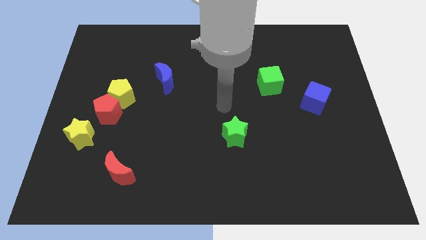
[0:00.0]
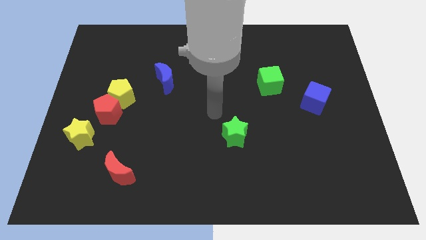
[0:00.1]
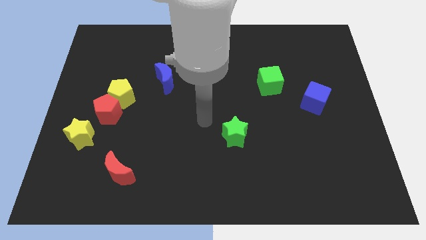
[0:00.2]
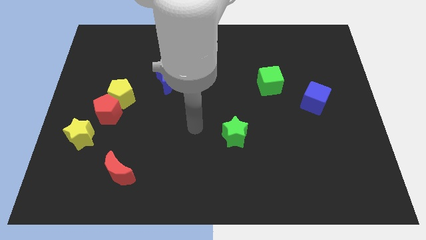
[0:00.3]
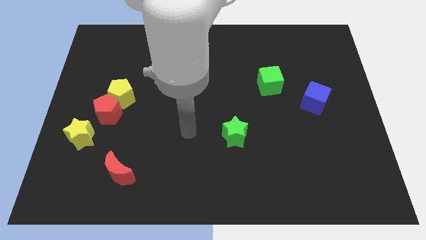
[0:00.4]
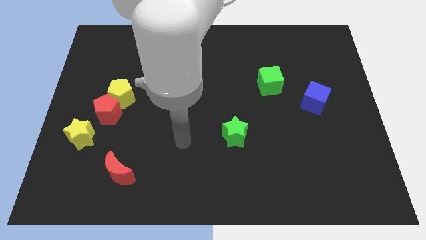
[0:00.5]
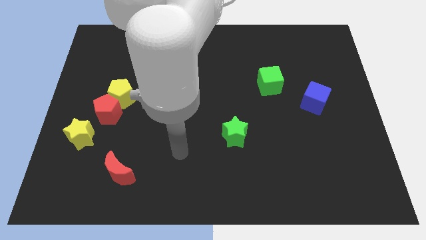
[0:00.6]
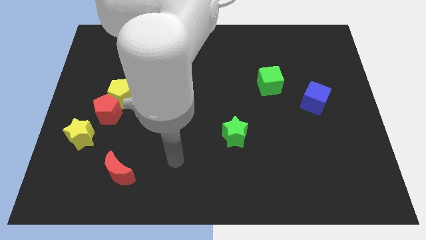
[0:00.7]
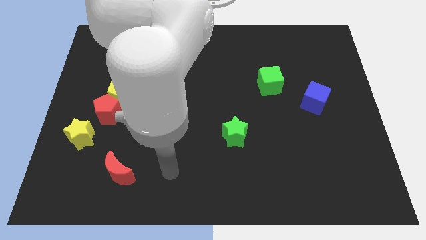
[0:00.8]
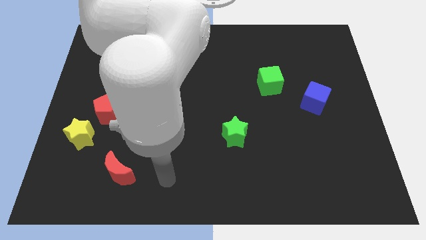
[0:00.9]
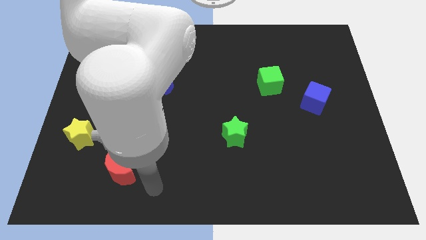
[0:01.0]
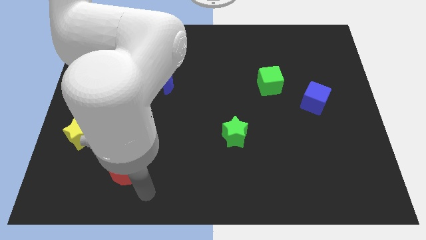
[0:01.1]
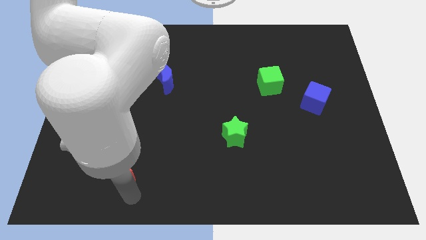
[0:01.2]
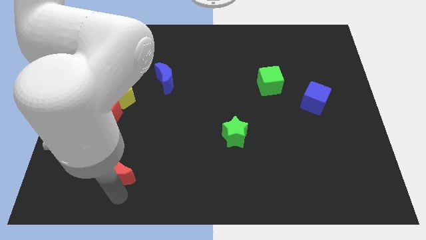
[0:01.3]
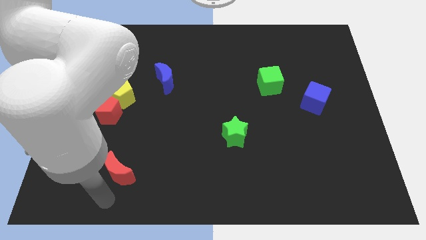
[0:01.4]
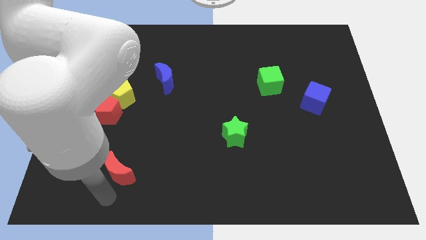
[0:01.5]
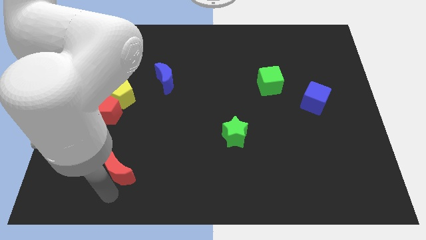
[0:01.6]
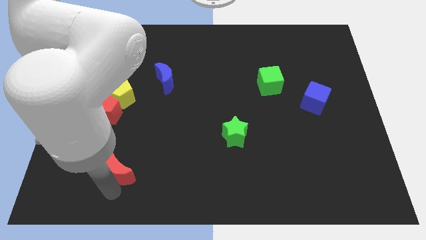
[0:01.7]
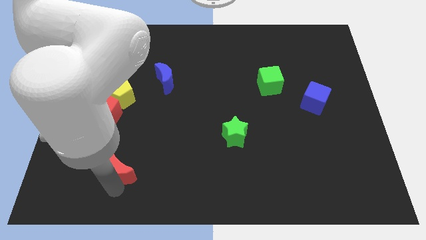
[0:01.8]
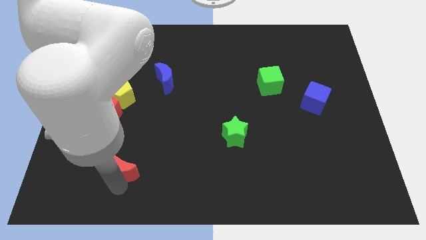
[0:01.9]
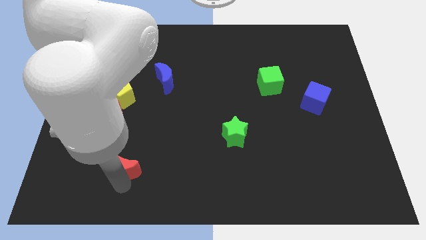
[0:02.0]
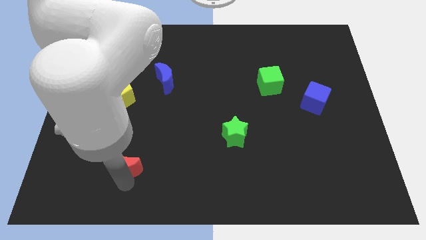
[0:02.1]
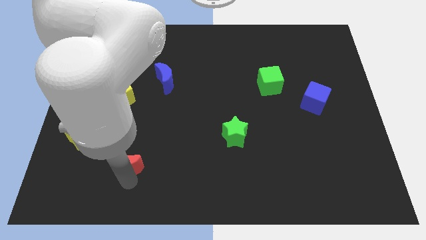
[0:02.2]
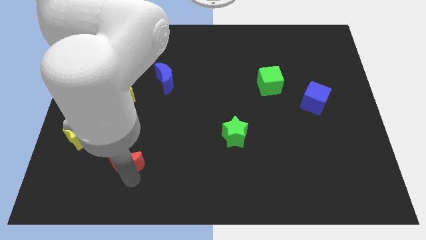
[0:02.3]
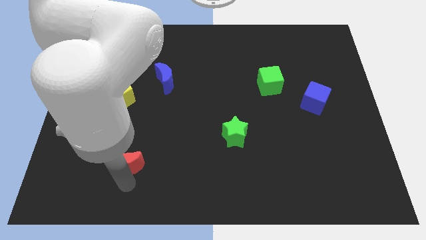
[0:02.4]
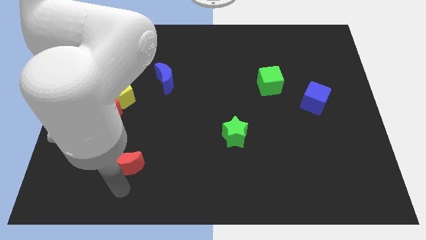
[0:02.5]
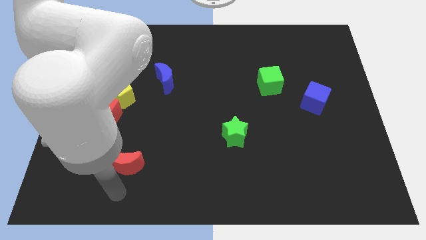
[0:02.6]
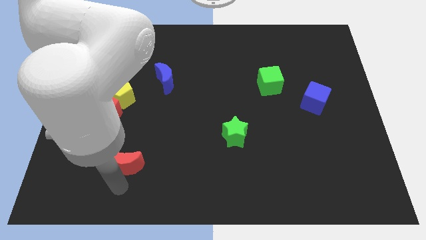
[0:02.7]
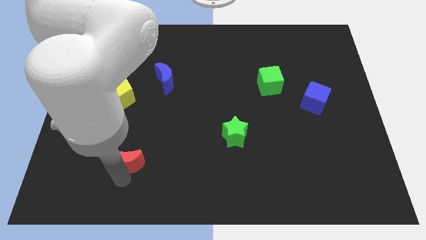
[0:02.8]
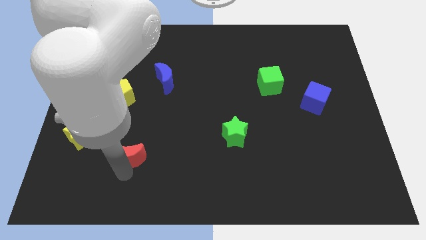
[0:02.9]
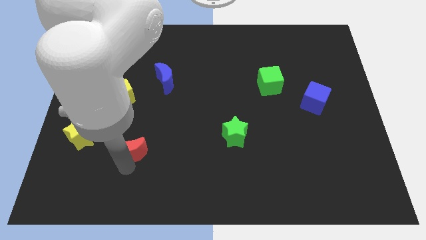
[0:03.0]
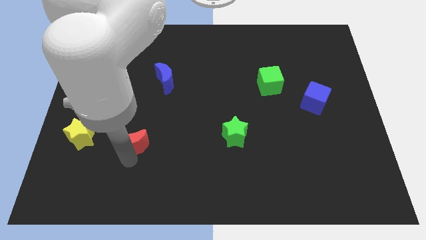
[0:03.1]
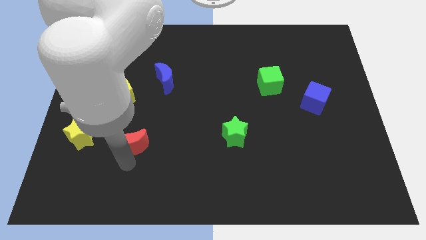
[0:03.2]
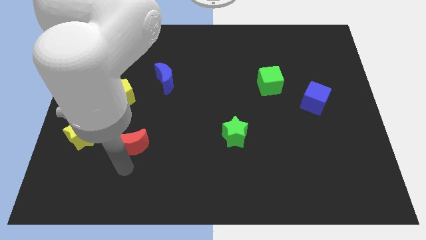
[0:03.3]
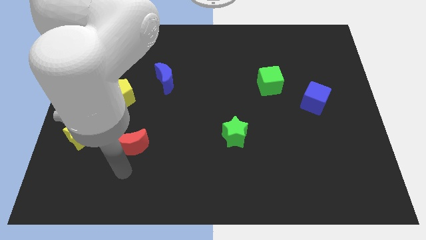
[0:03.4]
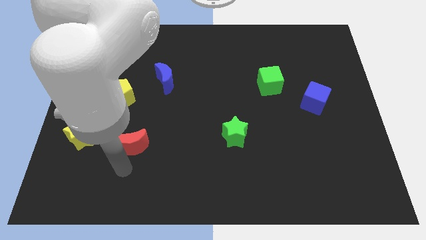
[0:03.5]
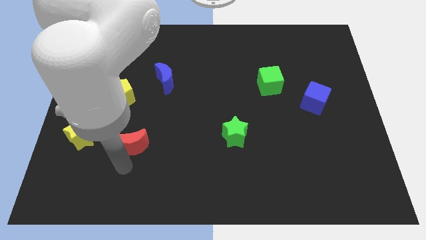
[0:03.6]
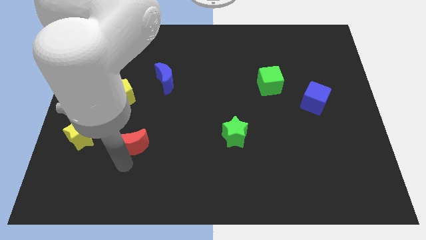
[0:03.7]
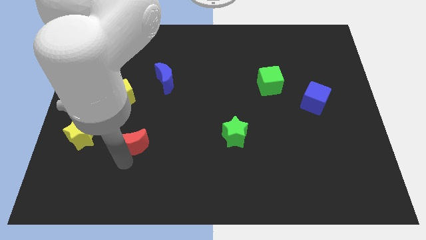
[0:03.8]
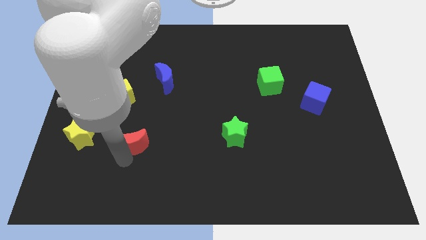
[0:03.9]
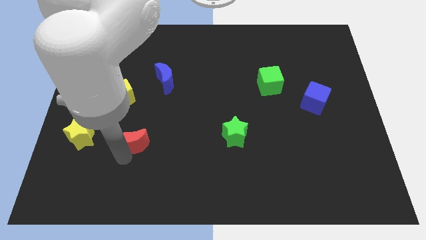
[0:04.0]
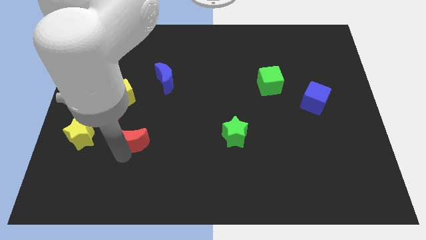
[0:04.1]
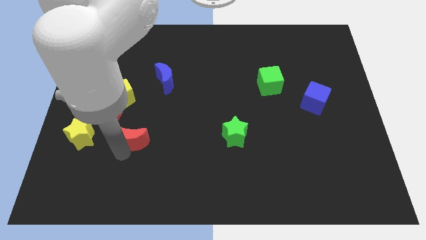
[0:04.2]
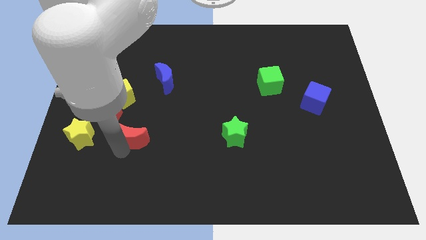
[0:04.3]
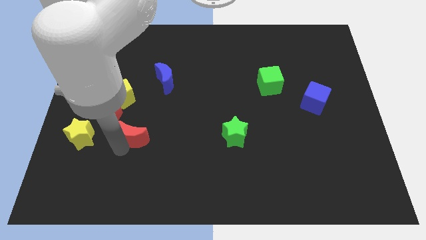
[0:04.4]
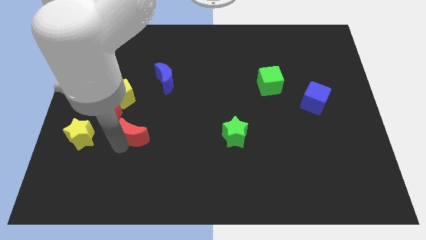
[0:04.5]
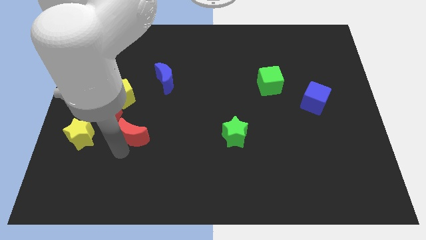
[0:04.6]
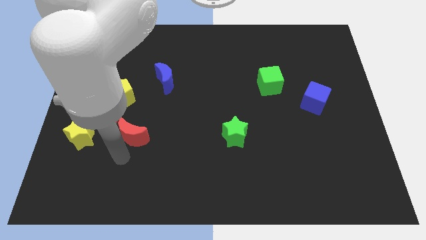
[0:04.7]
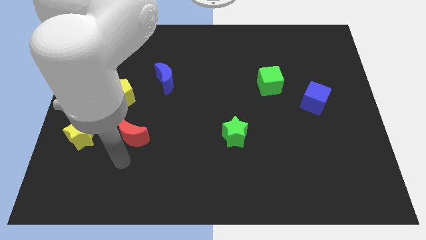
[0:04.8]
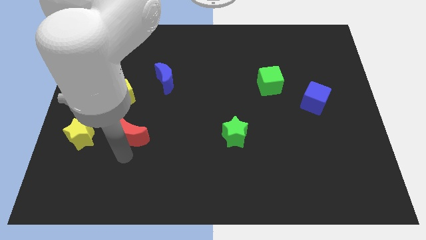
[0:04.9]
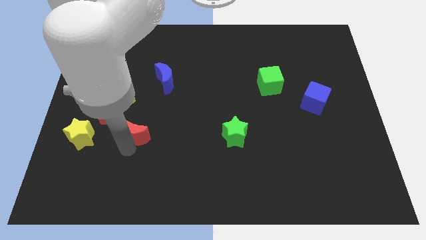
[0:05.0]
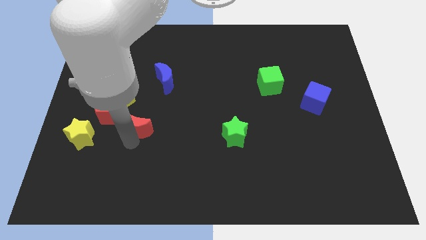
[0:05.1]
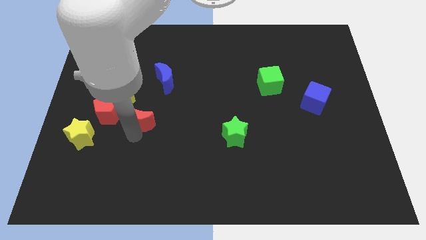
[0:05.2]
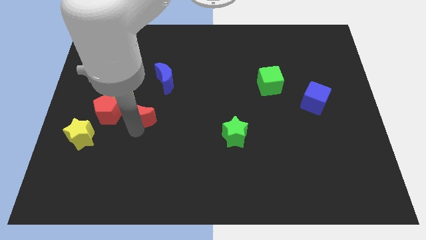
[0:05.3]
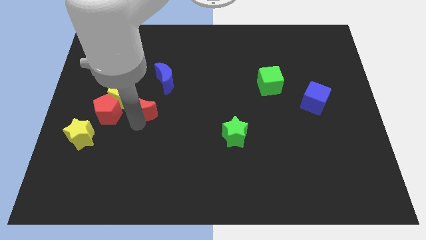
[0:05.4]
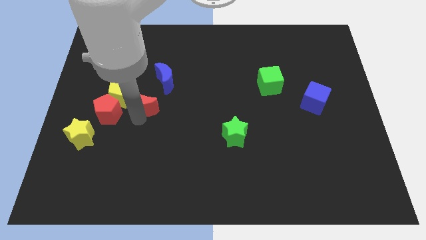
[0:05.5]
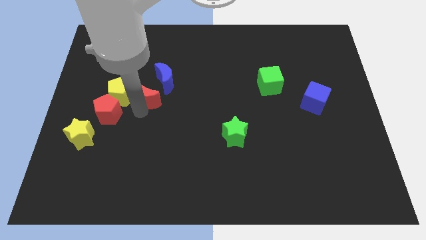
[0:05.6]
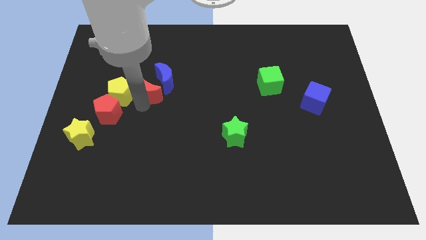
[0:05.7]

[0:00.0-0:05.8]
put the red moon close to the blue moon

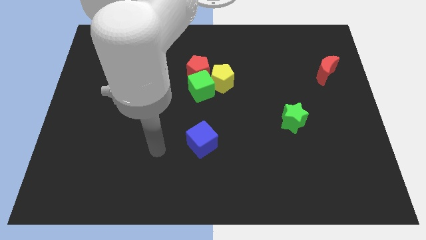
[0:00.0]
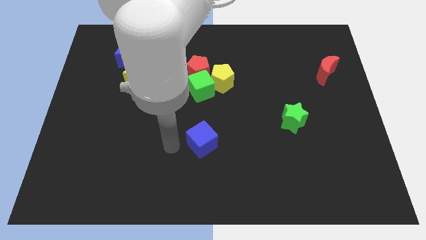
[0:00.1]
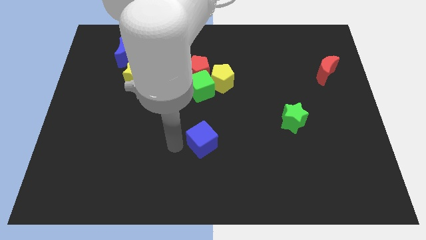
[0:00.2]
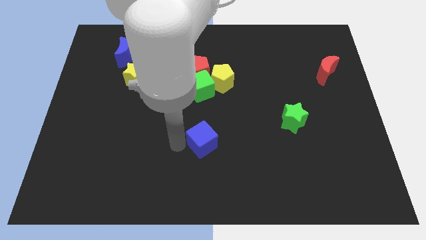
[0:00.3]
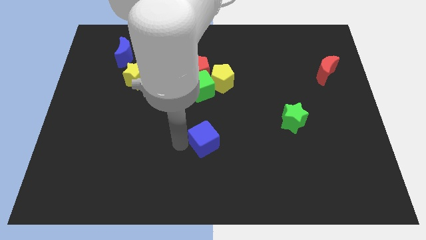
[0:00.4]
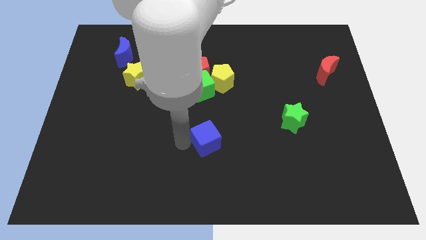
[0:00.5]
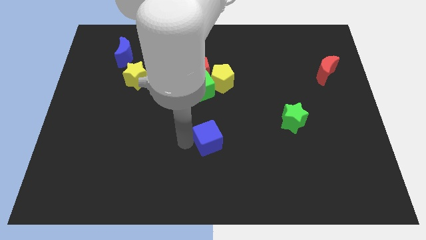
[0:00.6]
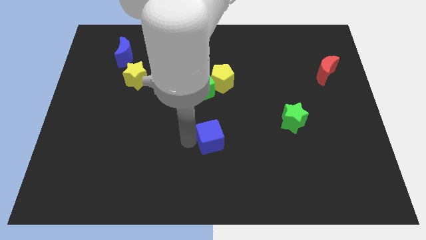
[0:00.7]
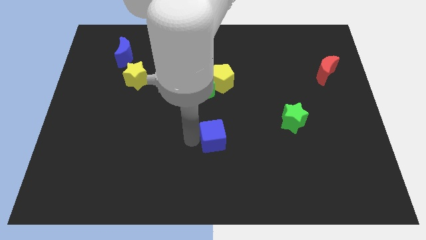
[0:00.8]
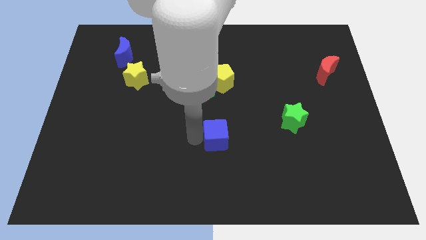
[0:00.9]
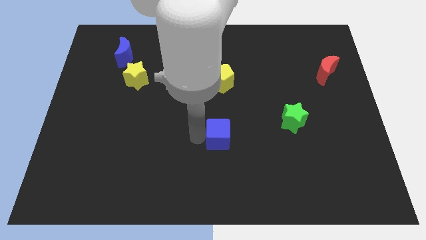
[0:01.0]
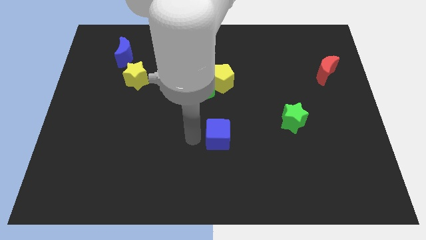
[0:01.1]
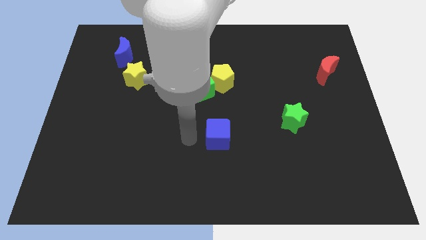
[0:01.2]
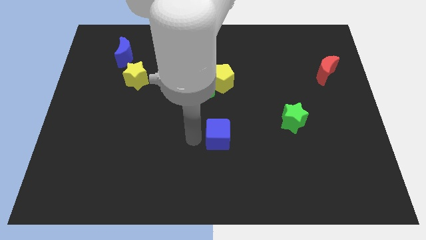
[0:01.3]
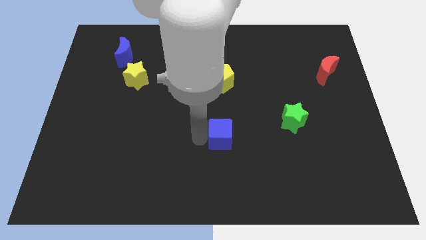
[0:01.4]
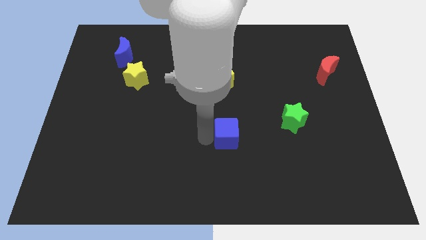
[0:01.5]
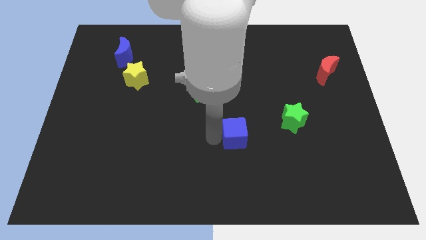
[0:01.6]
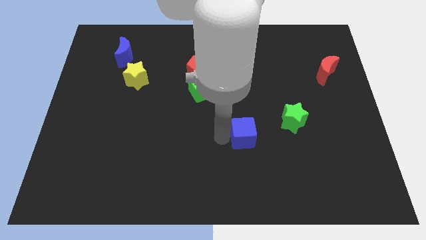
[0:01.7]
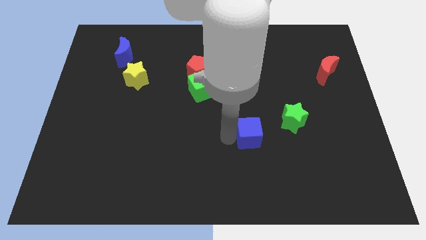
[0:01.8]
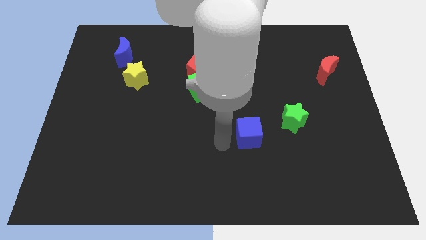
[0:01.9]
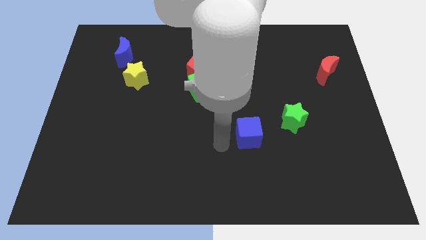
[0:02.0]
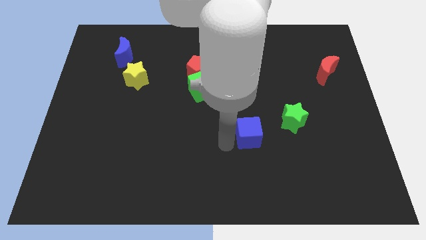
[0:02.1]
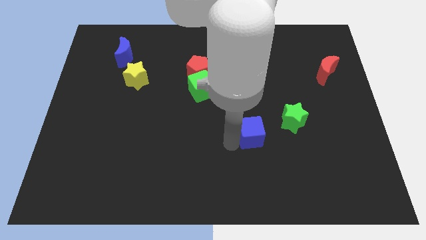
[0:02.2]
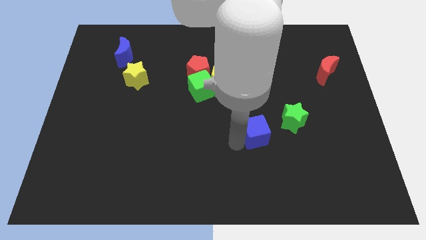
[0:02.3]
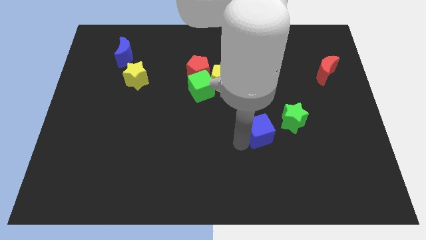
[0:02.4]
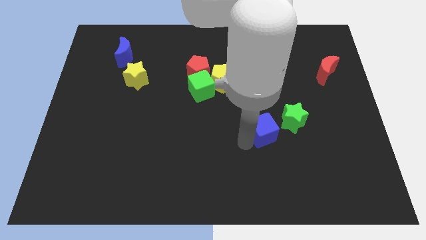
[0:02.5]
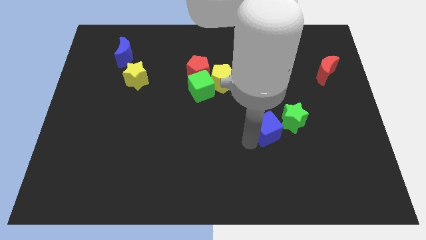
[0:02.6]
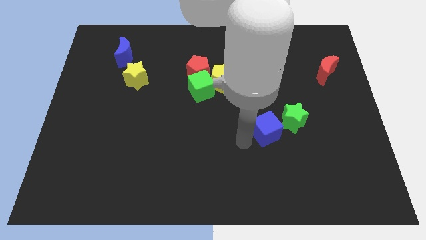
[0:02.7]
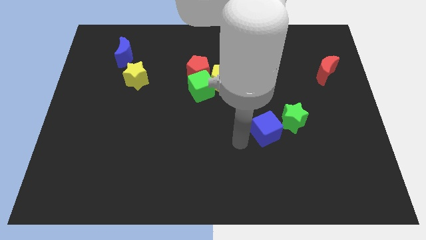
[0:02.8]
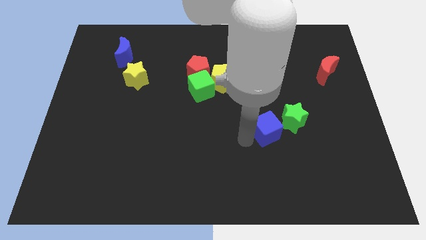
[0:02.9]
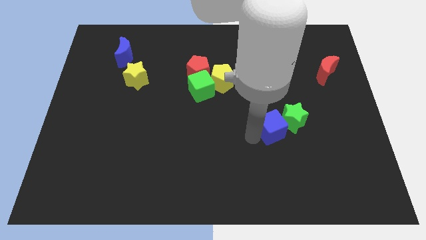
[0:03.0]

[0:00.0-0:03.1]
move the blue cube towards the green star
